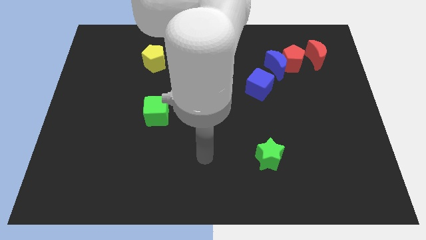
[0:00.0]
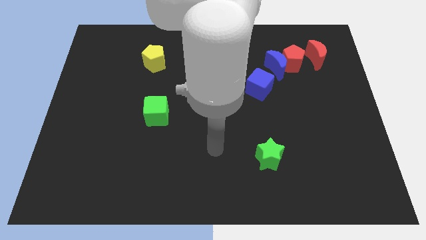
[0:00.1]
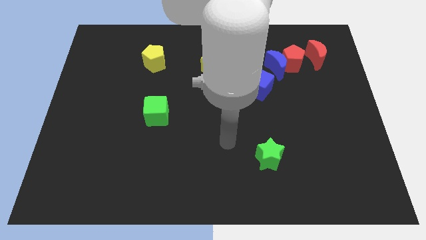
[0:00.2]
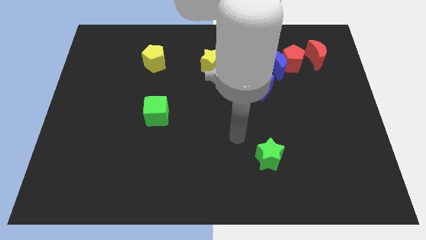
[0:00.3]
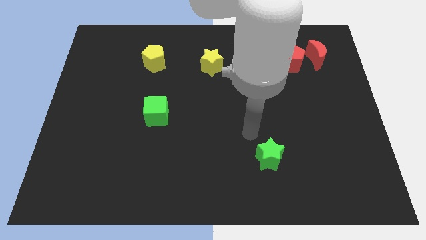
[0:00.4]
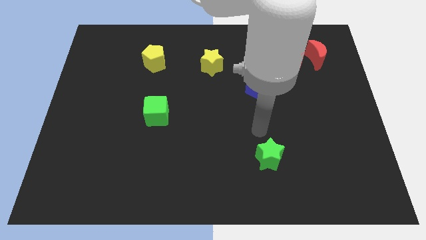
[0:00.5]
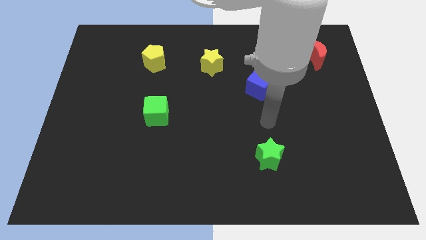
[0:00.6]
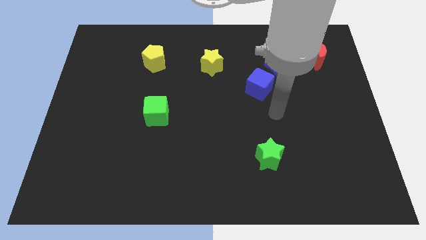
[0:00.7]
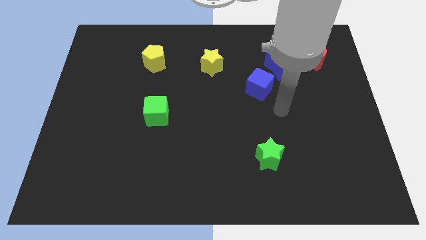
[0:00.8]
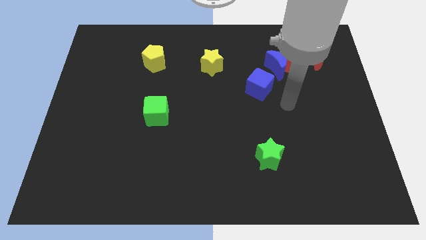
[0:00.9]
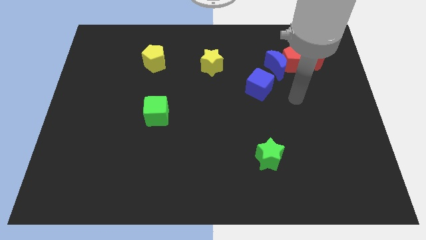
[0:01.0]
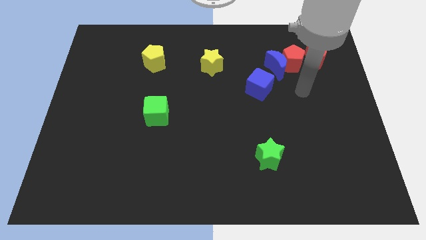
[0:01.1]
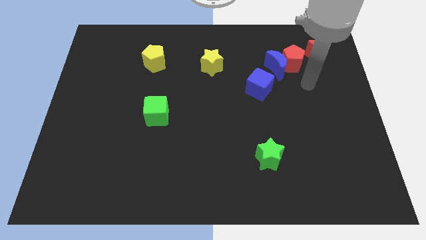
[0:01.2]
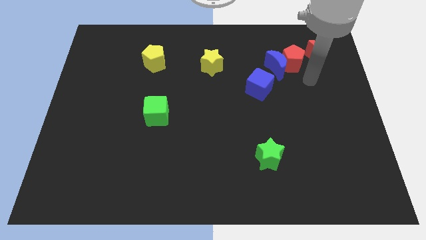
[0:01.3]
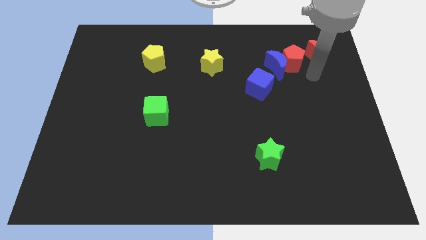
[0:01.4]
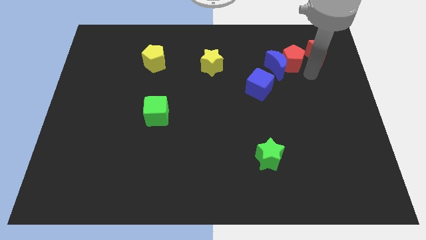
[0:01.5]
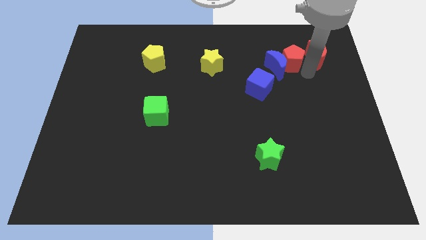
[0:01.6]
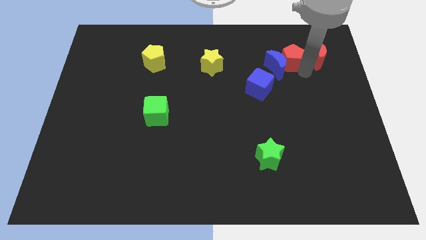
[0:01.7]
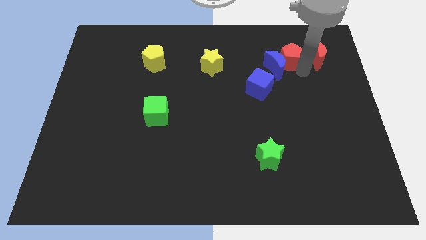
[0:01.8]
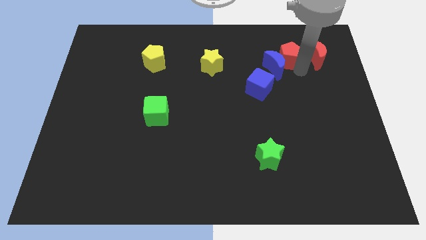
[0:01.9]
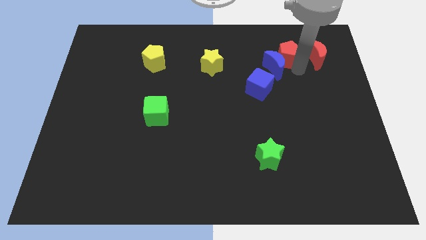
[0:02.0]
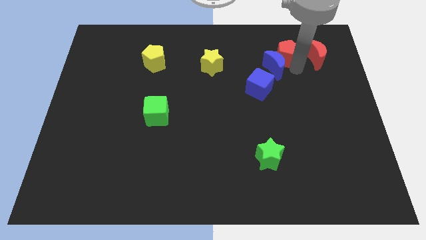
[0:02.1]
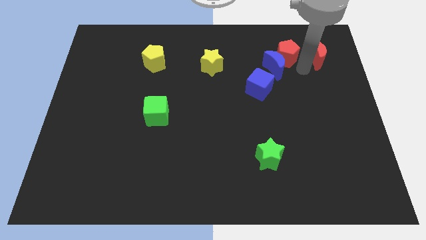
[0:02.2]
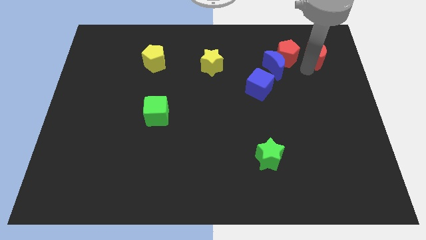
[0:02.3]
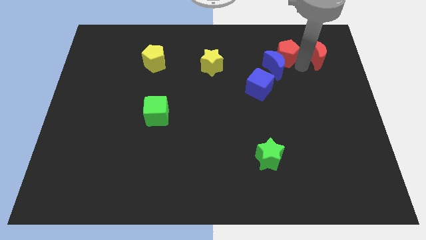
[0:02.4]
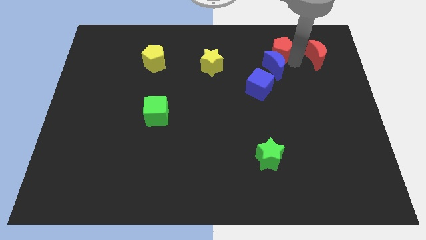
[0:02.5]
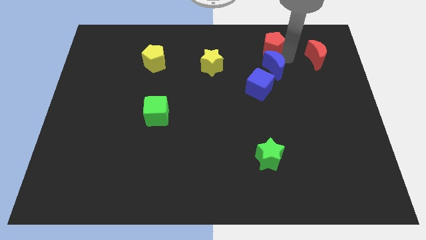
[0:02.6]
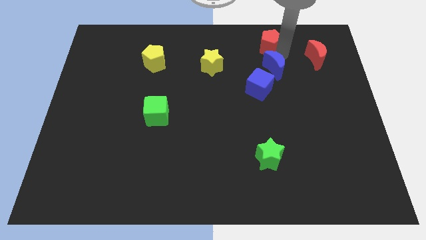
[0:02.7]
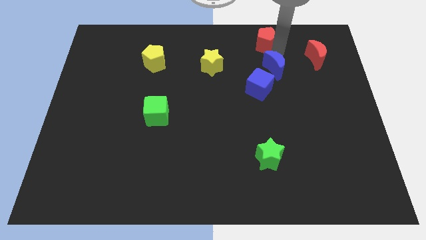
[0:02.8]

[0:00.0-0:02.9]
move the red pentagon away from the blue moon and red moon

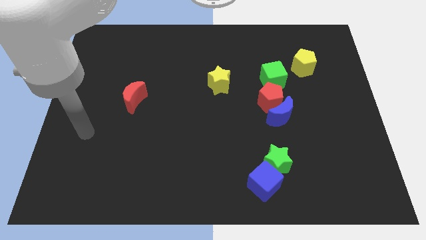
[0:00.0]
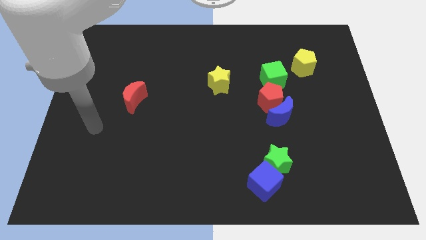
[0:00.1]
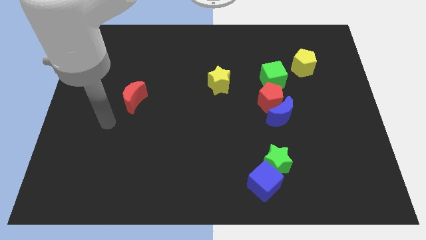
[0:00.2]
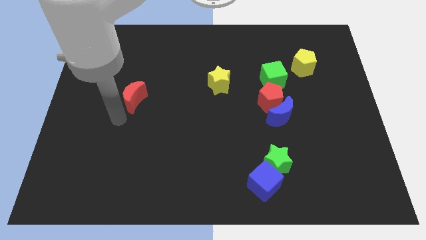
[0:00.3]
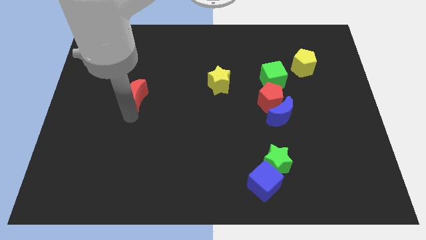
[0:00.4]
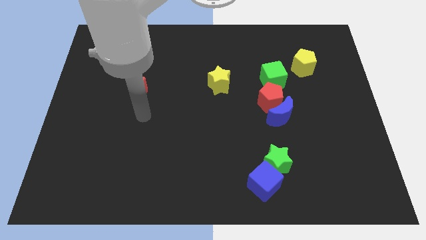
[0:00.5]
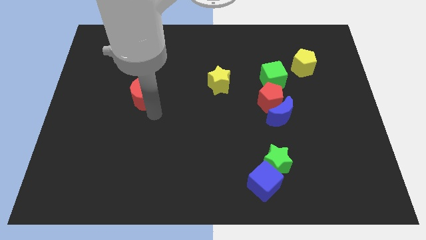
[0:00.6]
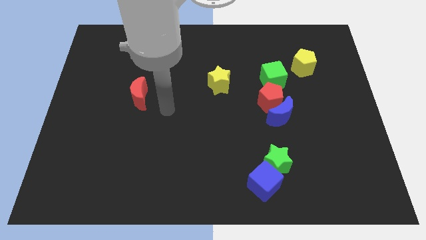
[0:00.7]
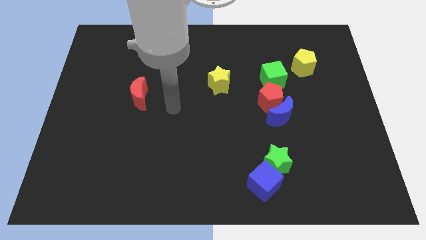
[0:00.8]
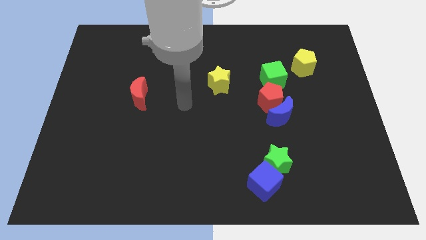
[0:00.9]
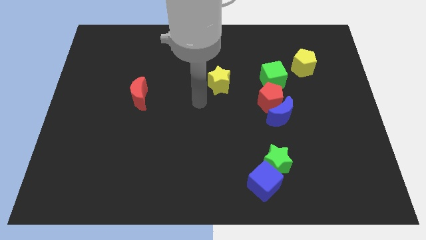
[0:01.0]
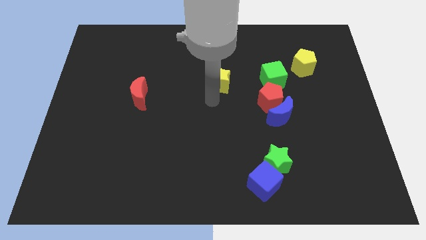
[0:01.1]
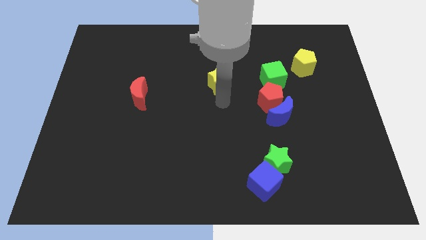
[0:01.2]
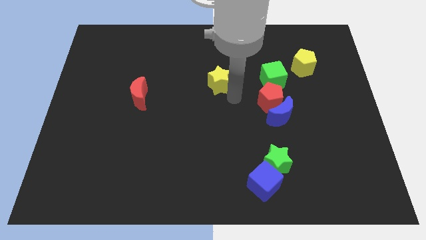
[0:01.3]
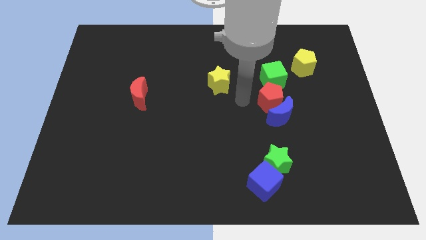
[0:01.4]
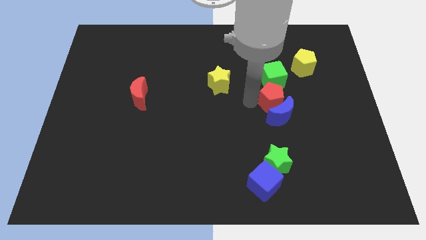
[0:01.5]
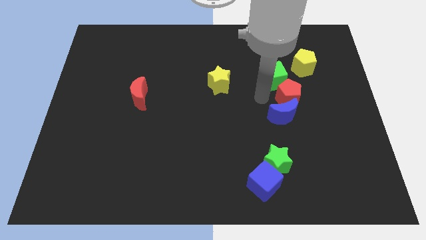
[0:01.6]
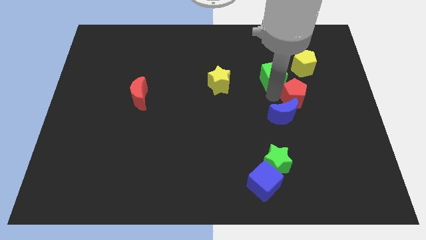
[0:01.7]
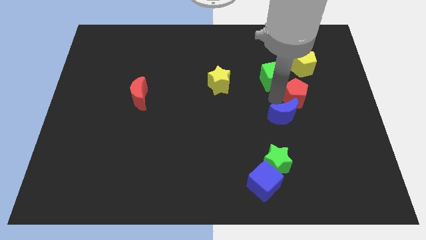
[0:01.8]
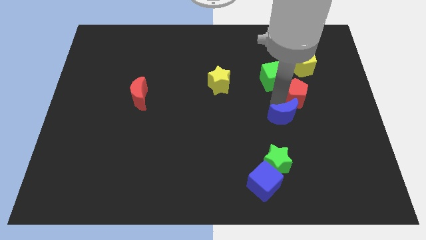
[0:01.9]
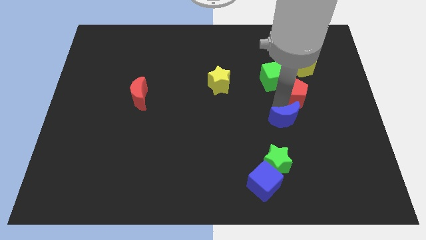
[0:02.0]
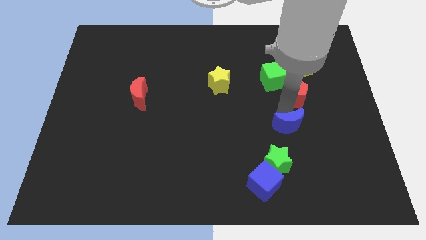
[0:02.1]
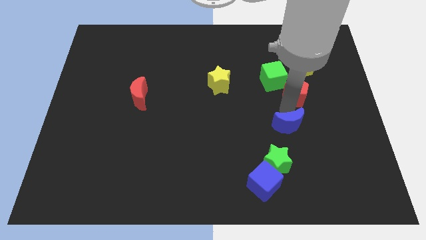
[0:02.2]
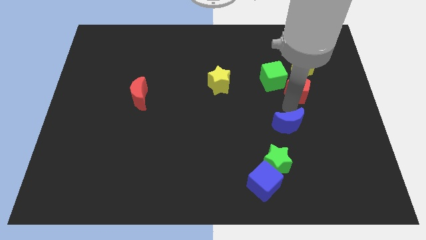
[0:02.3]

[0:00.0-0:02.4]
pull the blue moon apart from the red pentagon

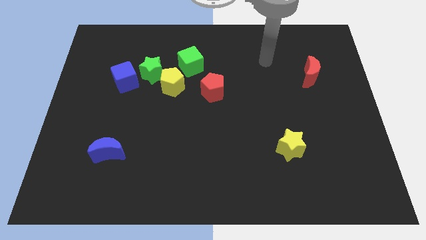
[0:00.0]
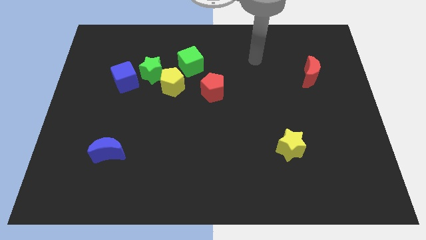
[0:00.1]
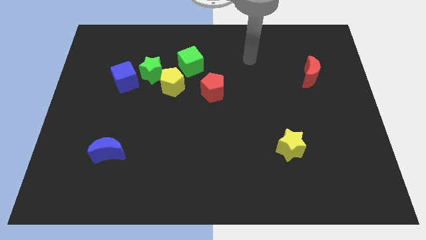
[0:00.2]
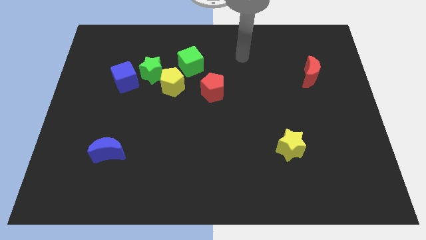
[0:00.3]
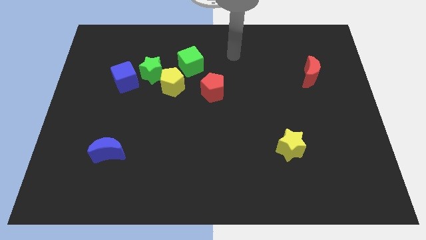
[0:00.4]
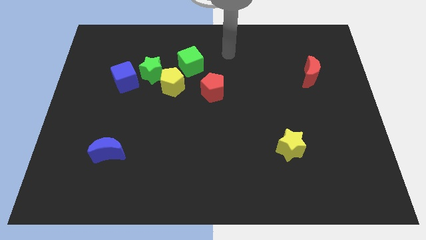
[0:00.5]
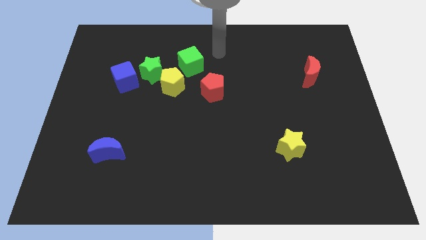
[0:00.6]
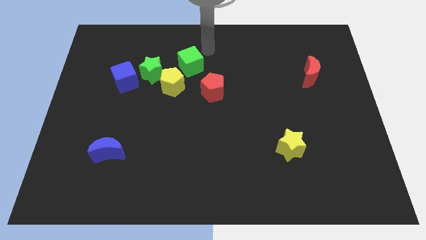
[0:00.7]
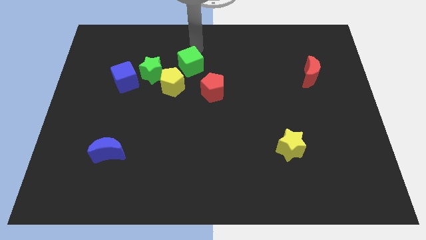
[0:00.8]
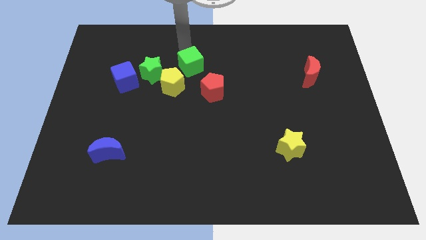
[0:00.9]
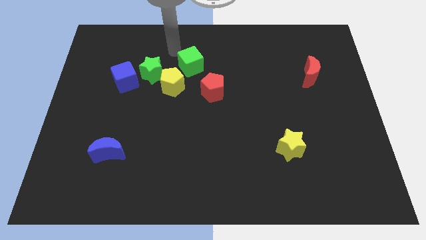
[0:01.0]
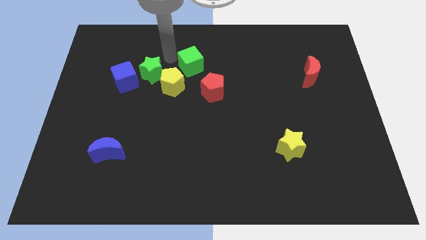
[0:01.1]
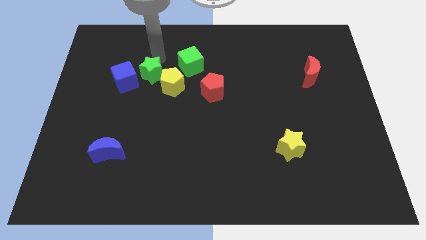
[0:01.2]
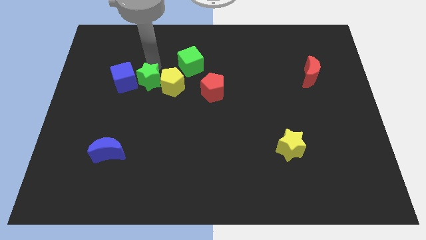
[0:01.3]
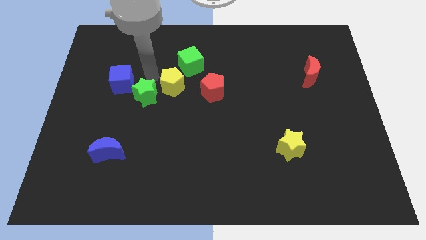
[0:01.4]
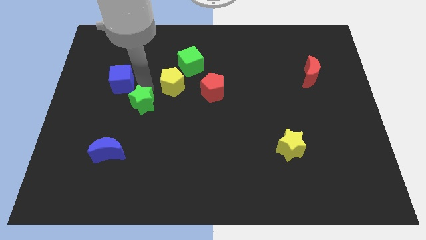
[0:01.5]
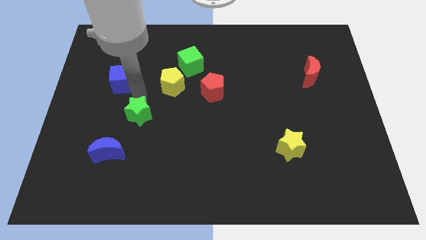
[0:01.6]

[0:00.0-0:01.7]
separate the blue cube from the green star

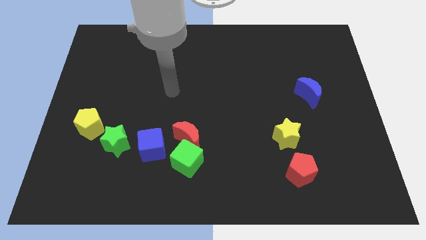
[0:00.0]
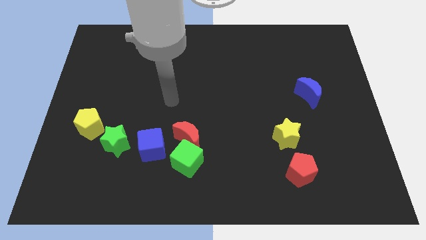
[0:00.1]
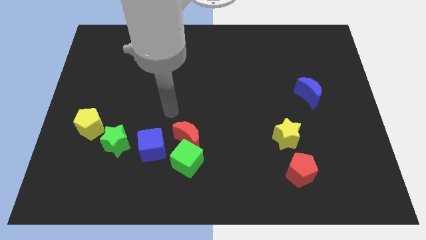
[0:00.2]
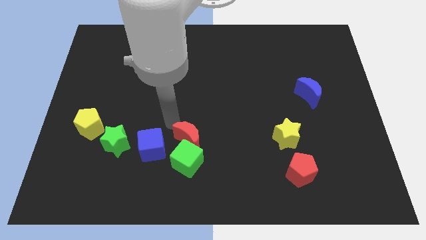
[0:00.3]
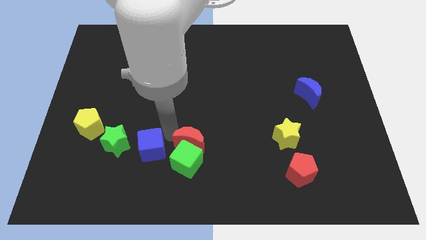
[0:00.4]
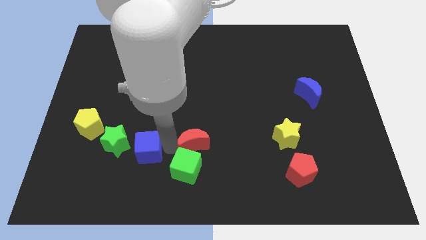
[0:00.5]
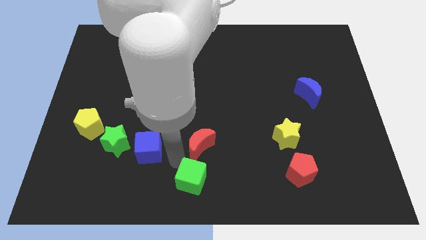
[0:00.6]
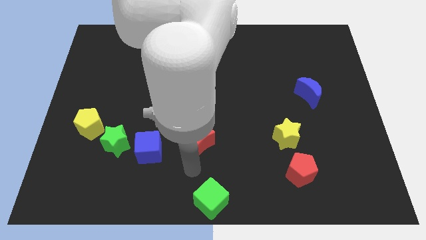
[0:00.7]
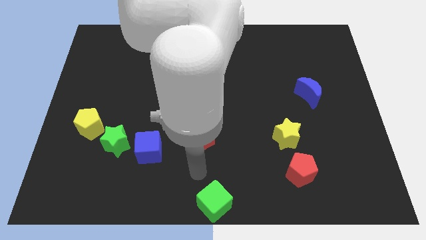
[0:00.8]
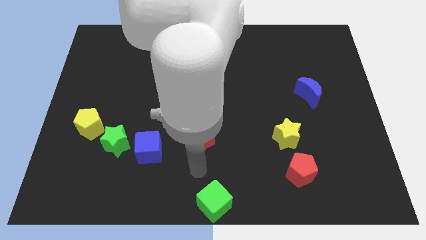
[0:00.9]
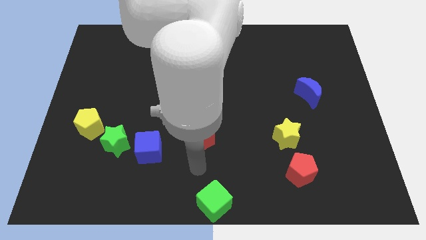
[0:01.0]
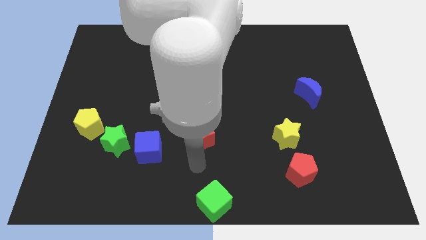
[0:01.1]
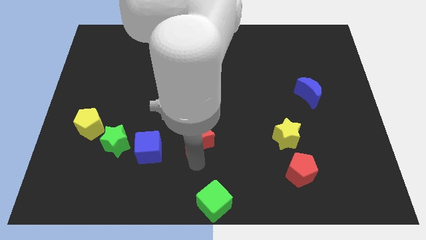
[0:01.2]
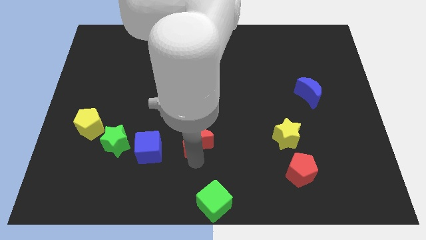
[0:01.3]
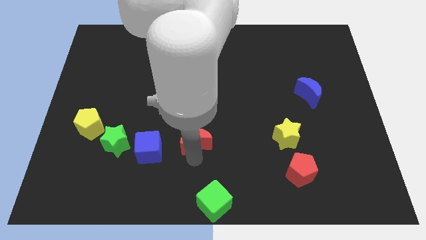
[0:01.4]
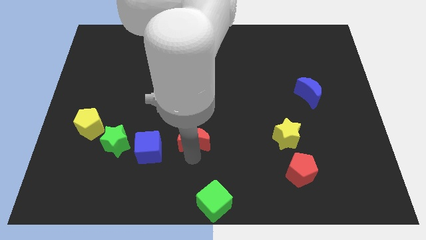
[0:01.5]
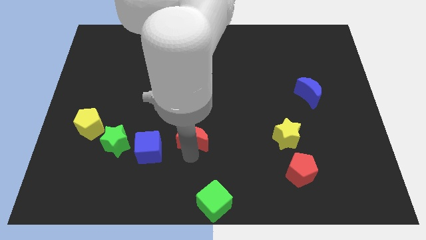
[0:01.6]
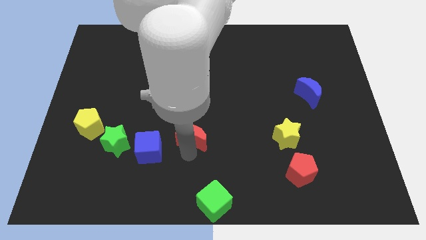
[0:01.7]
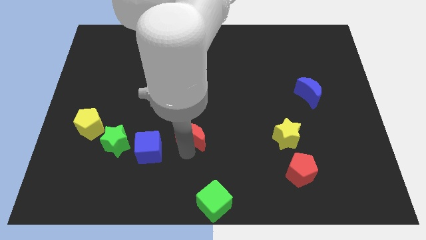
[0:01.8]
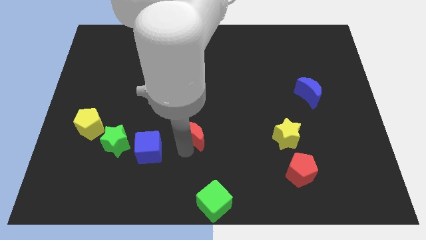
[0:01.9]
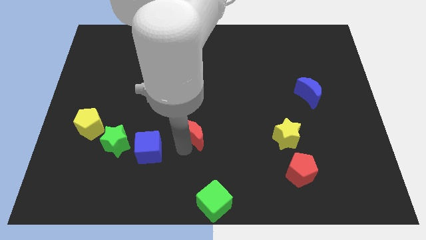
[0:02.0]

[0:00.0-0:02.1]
separate the red moon from the green cube and blue cube

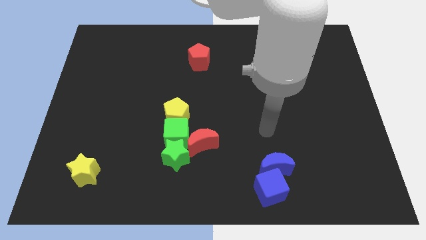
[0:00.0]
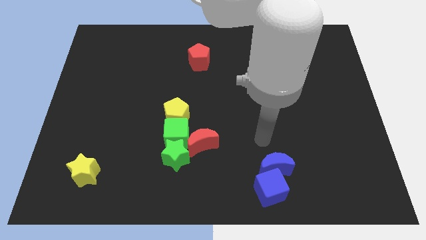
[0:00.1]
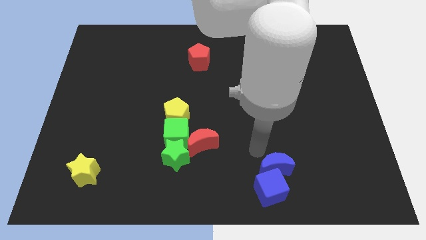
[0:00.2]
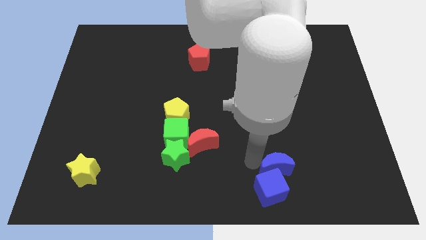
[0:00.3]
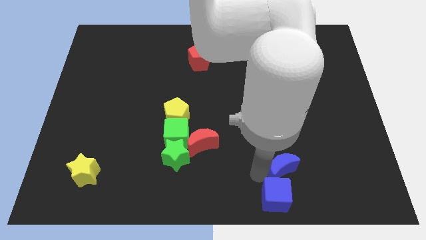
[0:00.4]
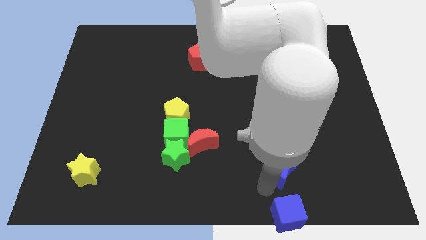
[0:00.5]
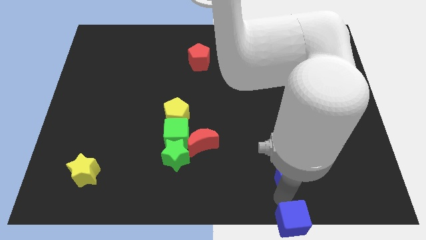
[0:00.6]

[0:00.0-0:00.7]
move the blue moon away from the blue cube
